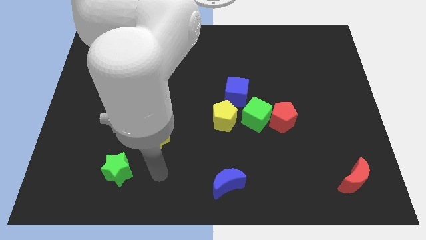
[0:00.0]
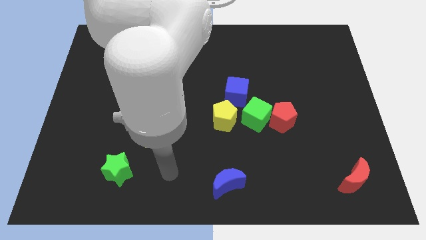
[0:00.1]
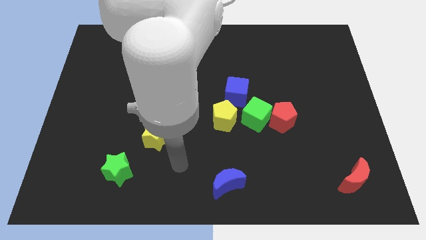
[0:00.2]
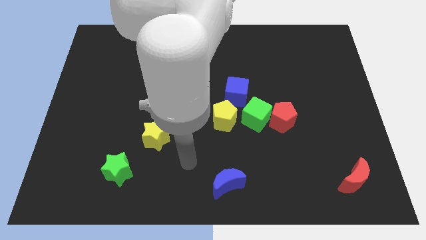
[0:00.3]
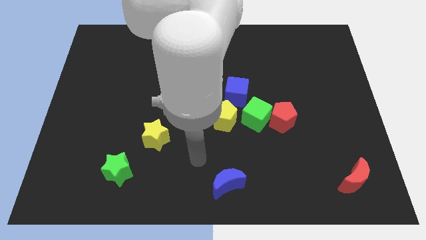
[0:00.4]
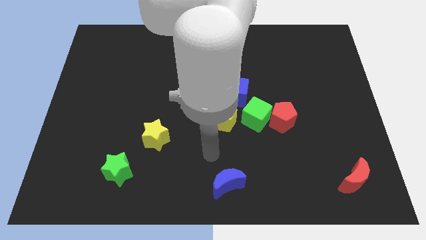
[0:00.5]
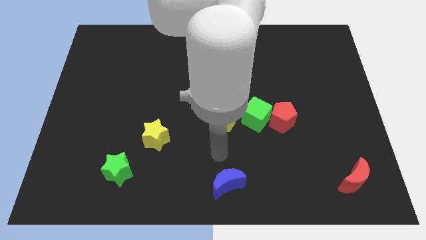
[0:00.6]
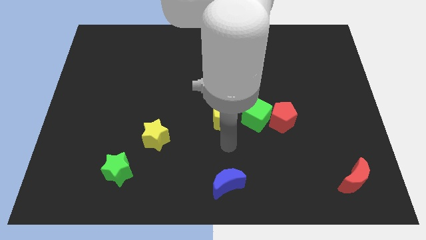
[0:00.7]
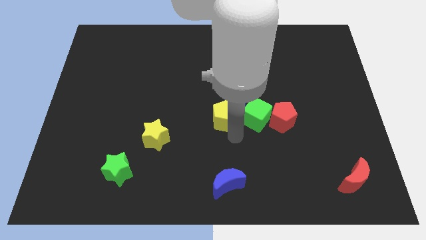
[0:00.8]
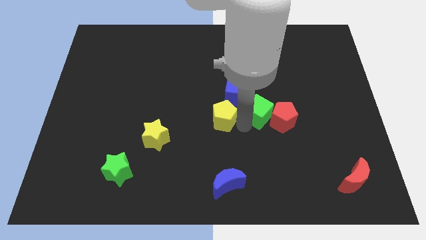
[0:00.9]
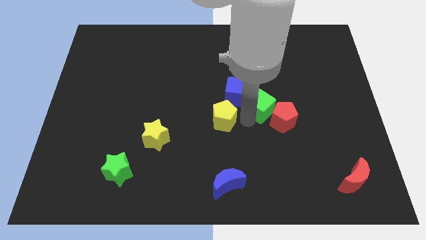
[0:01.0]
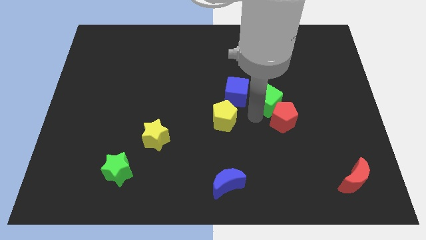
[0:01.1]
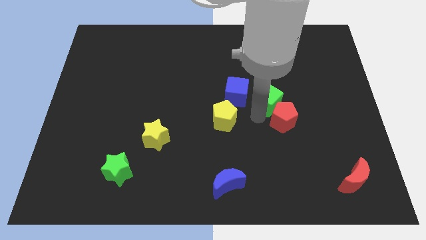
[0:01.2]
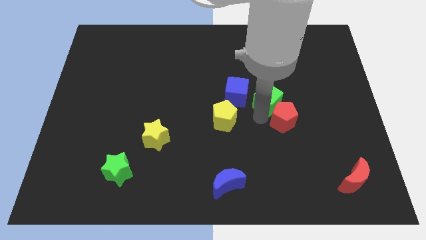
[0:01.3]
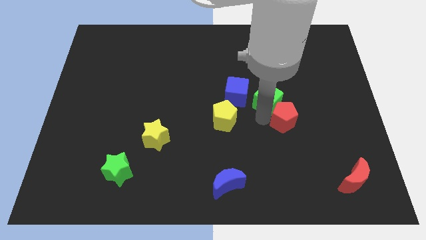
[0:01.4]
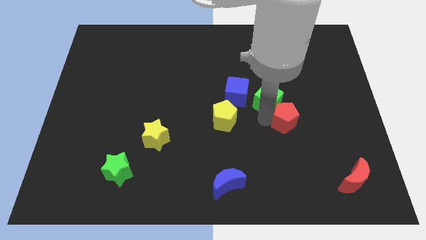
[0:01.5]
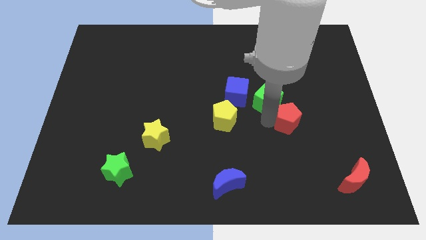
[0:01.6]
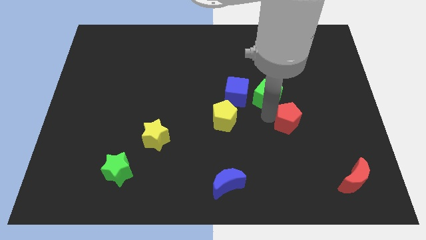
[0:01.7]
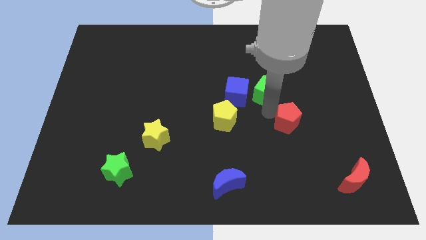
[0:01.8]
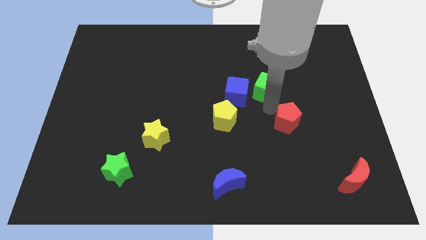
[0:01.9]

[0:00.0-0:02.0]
separate the red pentagon from the green cube

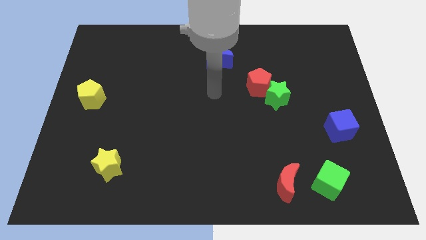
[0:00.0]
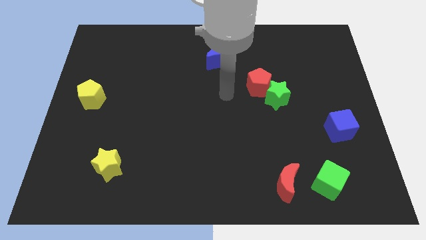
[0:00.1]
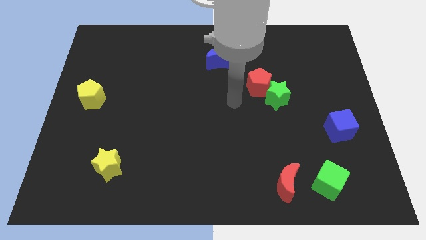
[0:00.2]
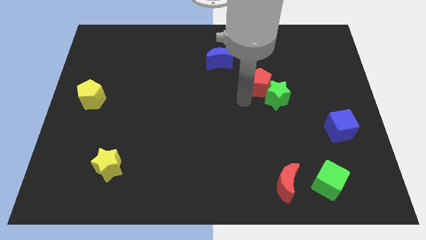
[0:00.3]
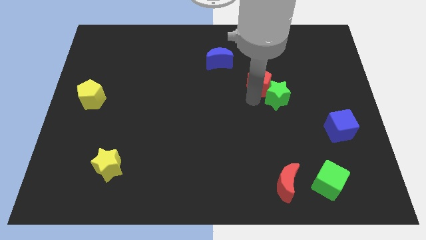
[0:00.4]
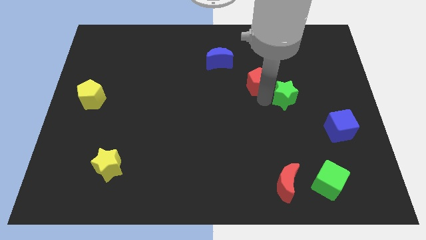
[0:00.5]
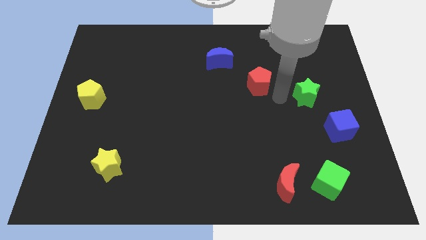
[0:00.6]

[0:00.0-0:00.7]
separate the red pentagon from the green star

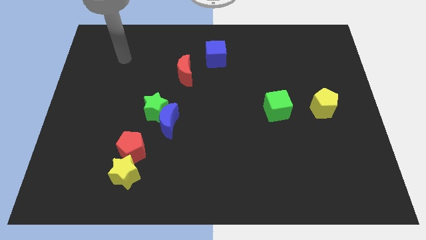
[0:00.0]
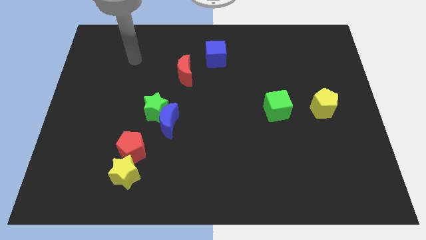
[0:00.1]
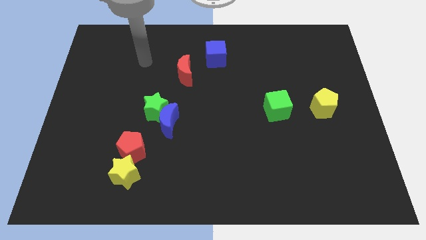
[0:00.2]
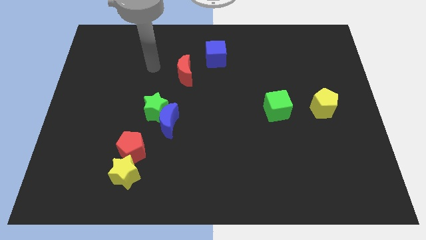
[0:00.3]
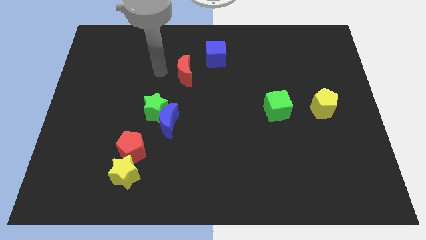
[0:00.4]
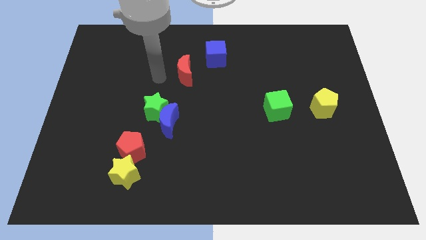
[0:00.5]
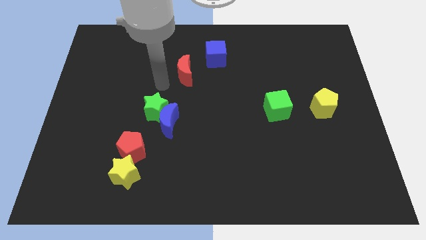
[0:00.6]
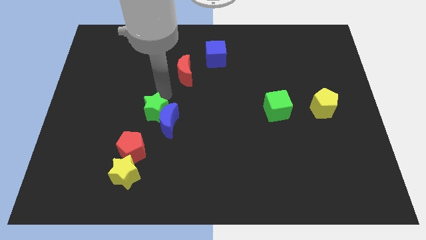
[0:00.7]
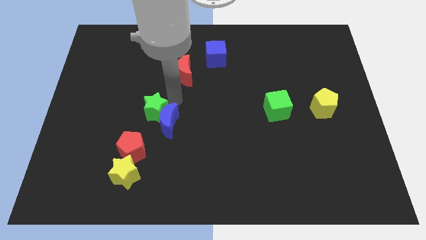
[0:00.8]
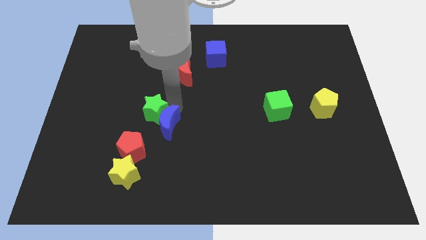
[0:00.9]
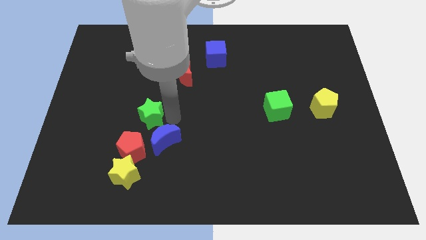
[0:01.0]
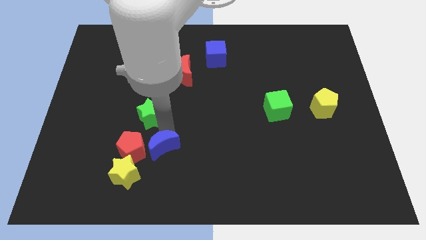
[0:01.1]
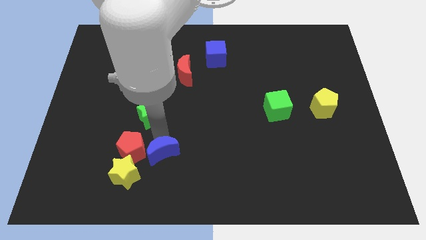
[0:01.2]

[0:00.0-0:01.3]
move the green star away from the blue moon

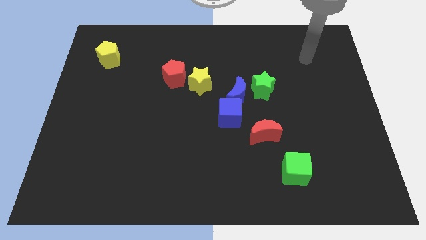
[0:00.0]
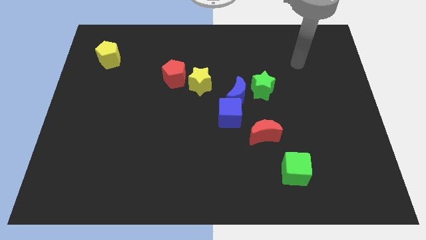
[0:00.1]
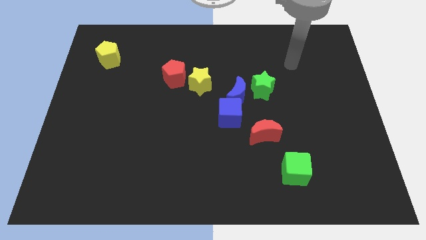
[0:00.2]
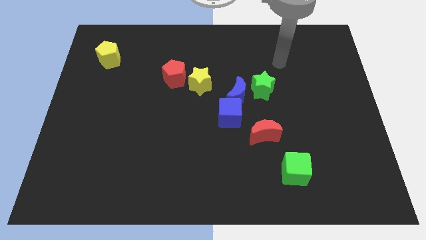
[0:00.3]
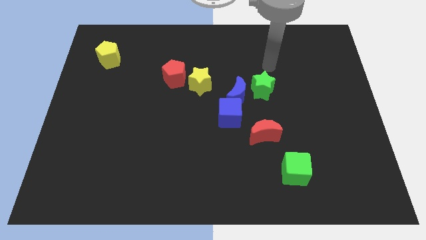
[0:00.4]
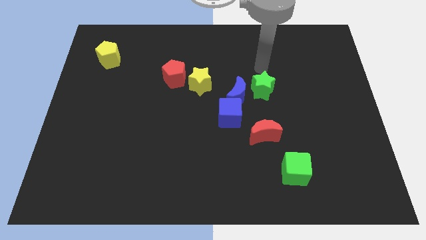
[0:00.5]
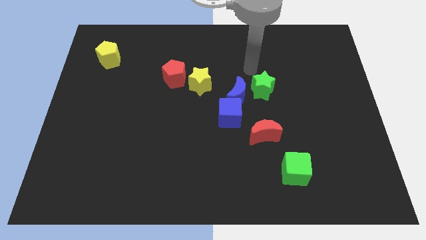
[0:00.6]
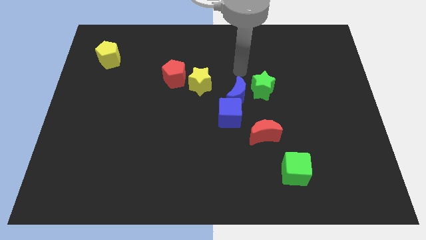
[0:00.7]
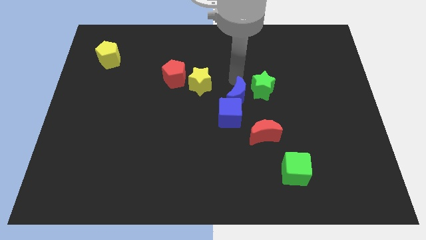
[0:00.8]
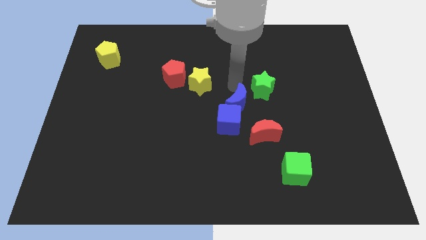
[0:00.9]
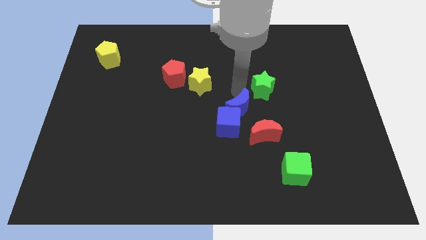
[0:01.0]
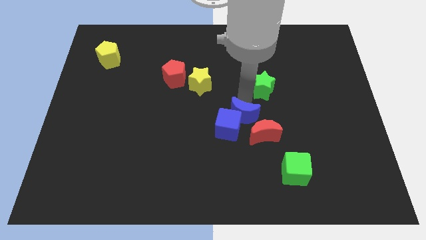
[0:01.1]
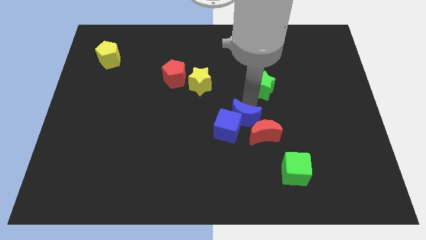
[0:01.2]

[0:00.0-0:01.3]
separate the green star from the blue moon

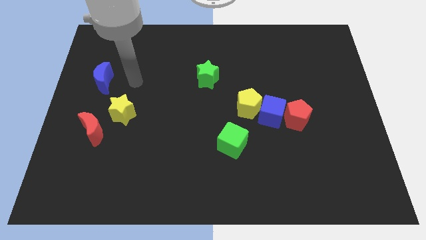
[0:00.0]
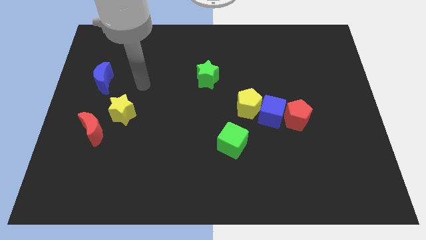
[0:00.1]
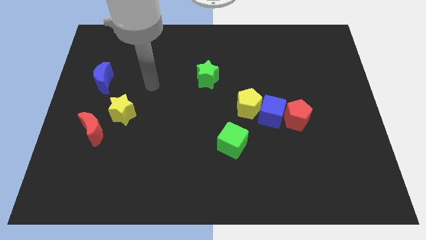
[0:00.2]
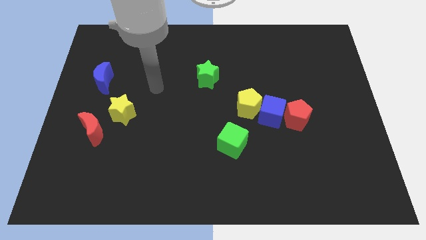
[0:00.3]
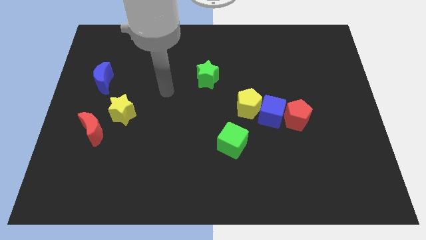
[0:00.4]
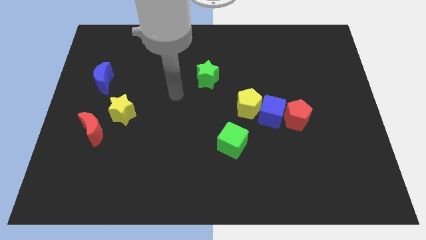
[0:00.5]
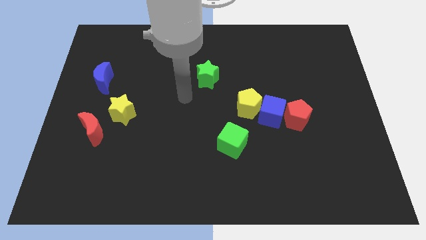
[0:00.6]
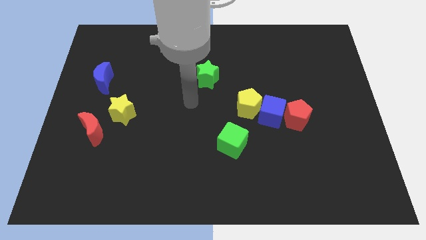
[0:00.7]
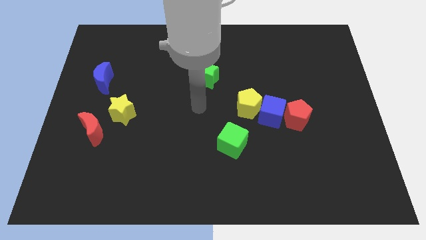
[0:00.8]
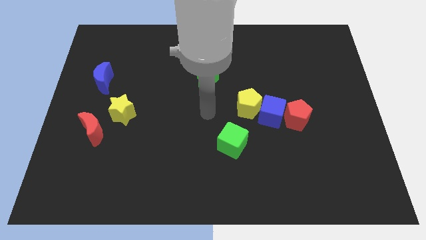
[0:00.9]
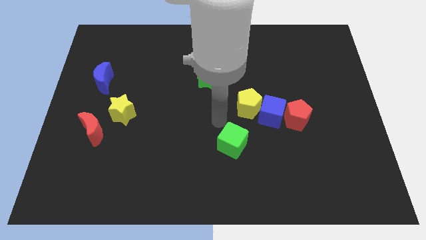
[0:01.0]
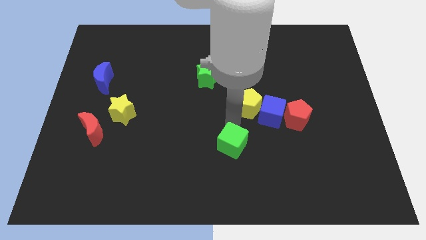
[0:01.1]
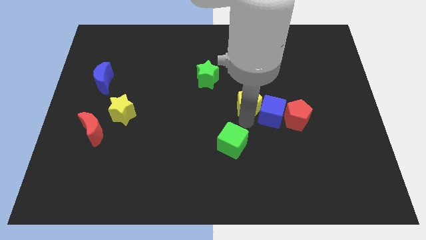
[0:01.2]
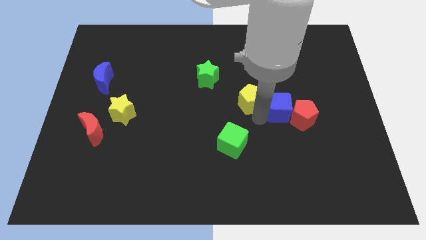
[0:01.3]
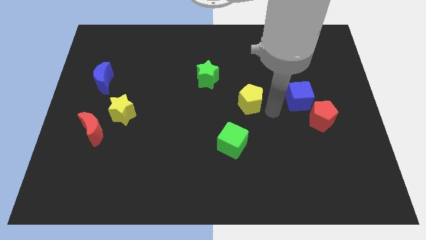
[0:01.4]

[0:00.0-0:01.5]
pull the yellow pentagon apart from the blue cube

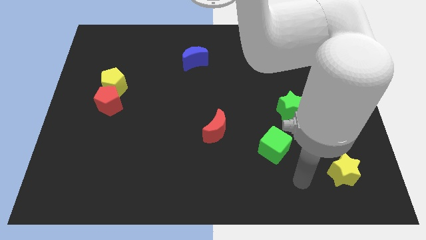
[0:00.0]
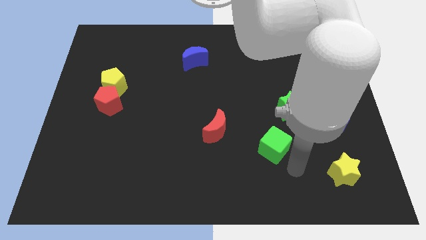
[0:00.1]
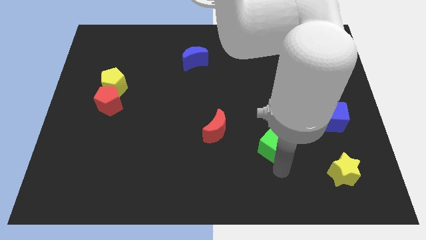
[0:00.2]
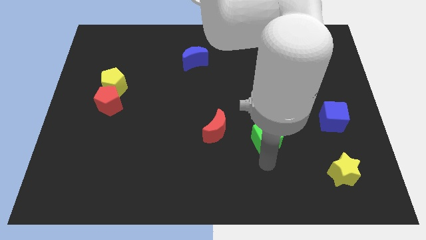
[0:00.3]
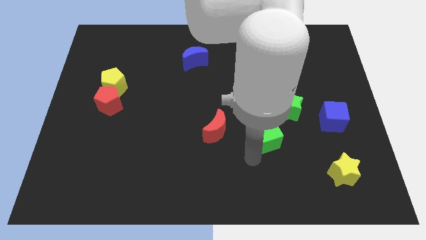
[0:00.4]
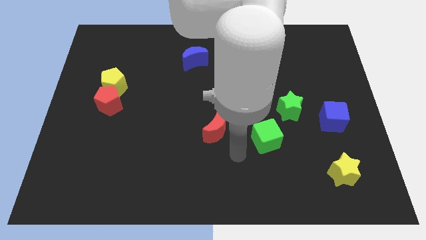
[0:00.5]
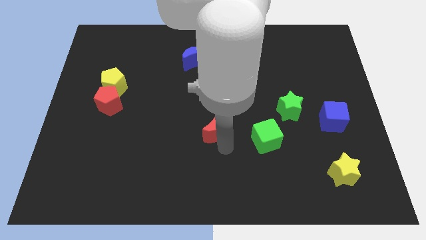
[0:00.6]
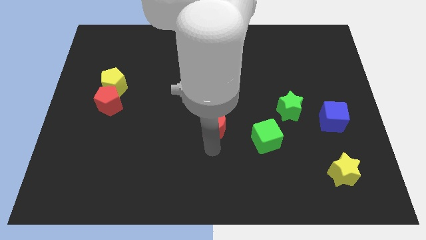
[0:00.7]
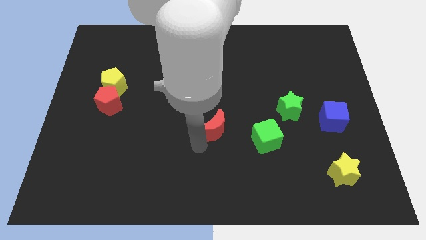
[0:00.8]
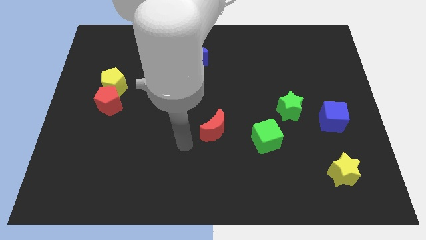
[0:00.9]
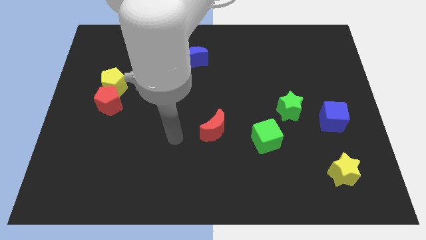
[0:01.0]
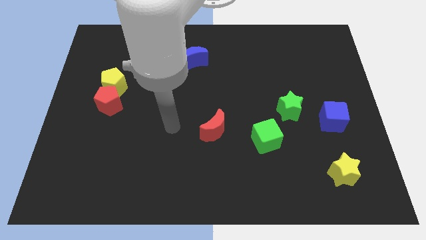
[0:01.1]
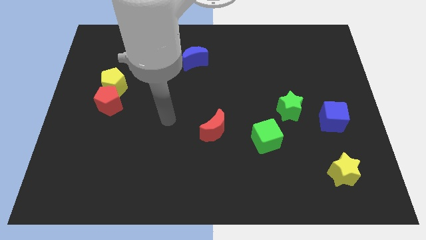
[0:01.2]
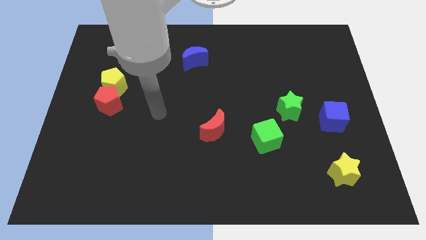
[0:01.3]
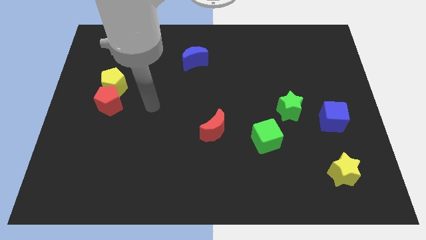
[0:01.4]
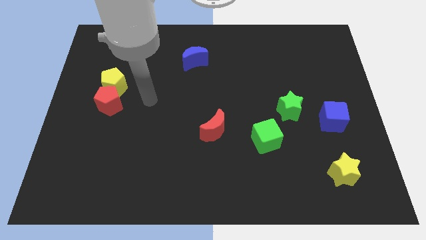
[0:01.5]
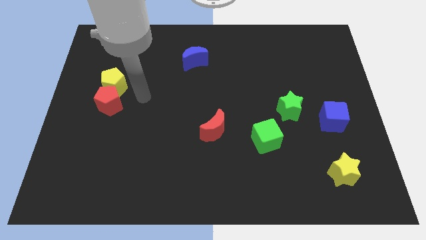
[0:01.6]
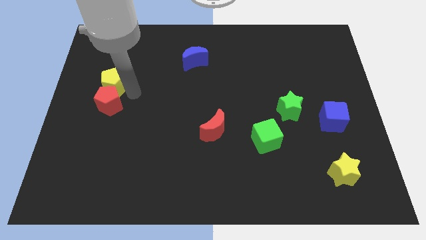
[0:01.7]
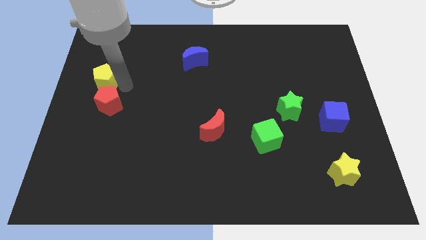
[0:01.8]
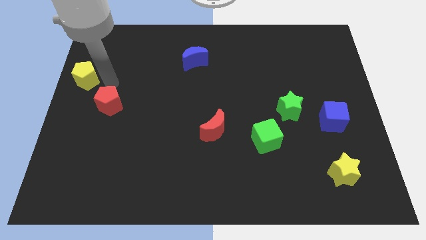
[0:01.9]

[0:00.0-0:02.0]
separate the red pentagon from the yellow pentagon
